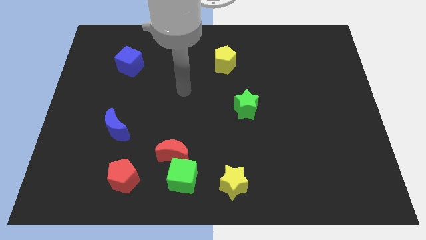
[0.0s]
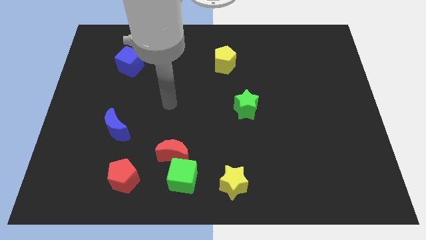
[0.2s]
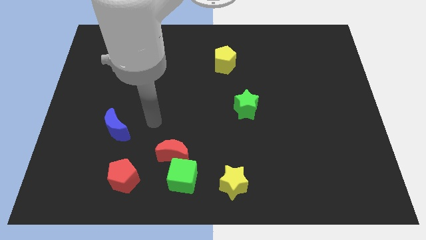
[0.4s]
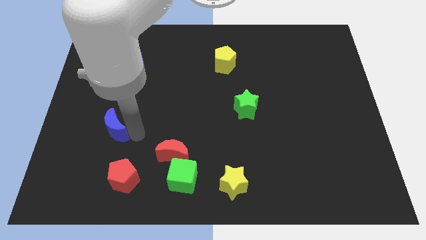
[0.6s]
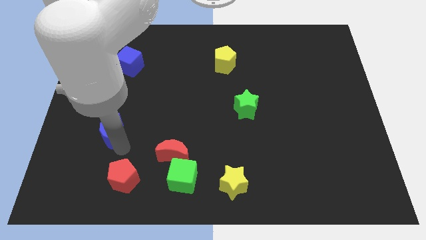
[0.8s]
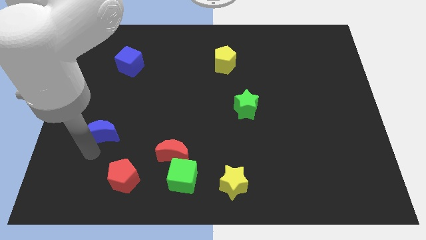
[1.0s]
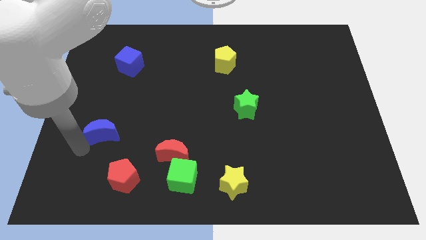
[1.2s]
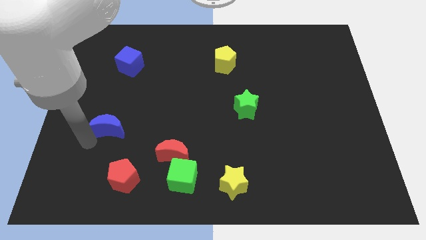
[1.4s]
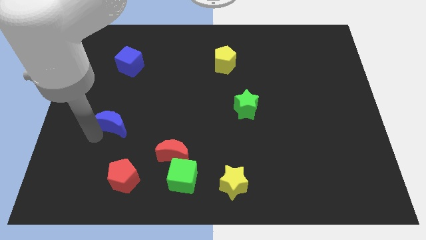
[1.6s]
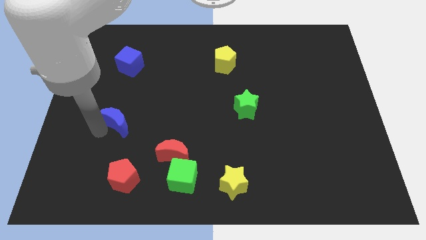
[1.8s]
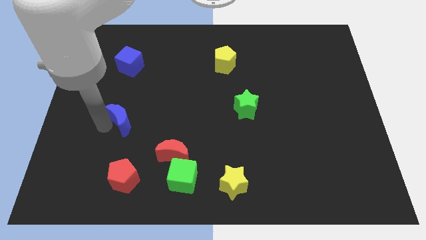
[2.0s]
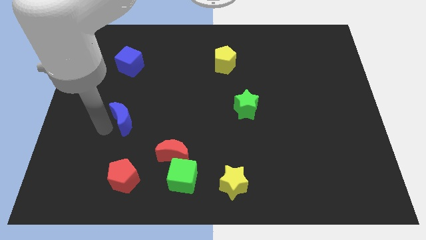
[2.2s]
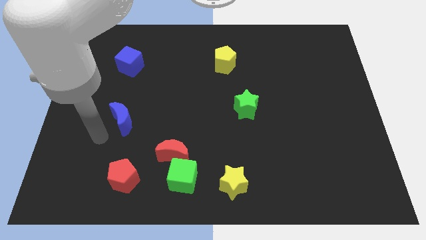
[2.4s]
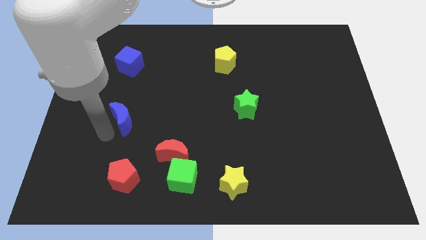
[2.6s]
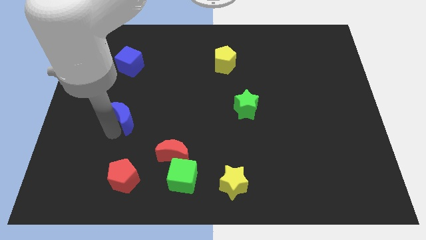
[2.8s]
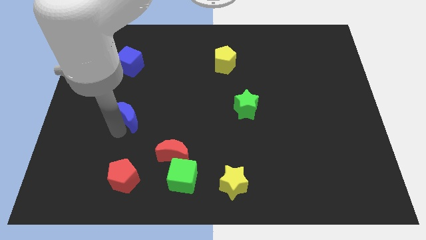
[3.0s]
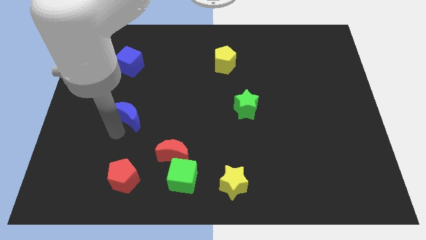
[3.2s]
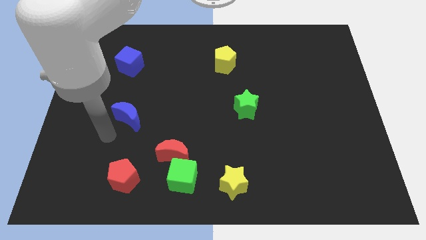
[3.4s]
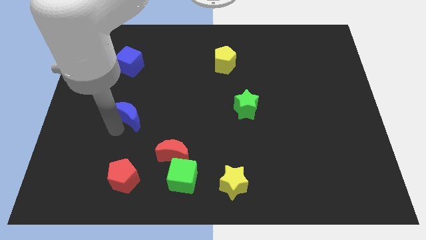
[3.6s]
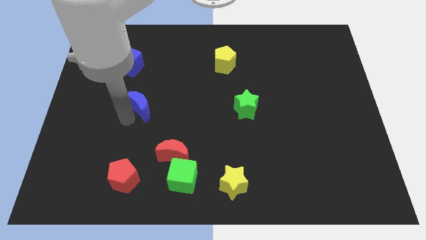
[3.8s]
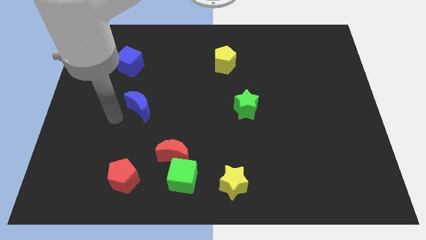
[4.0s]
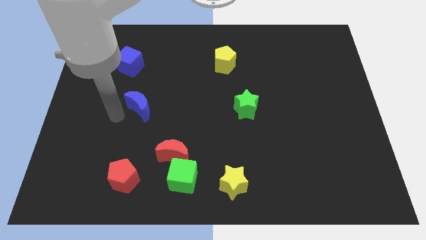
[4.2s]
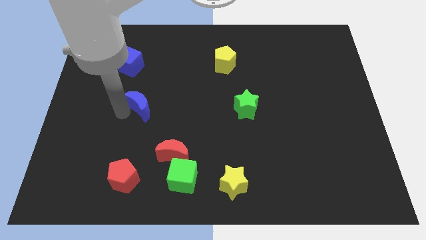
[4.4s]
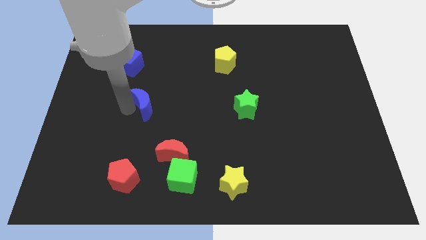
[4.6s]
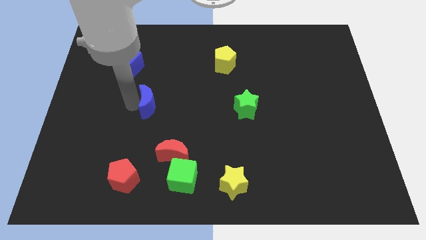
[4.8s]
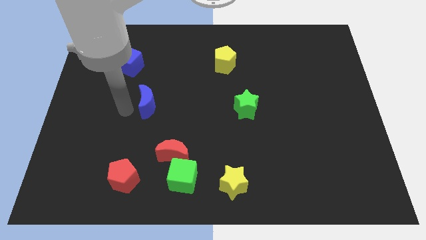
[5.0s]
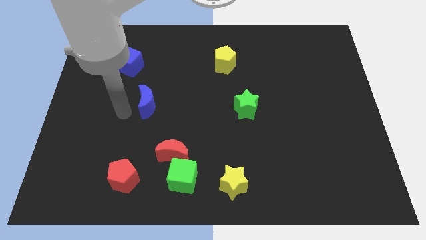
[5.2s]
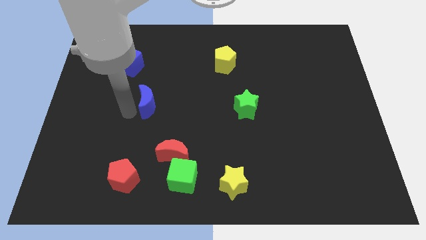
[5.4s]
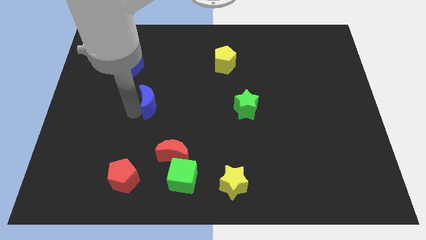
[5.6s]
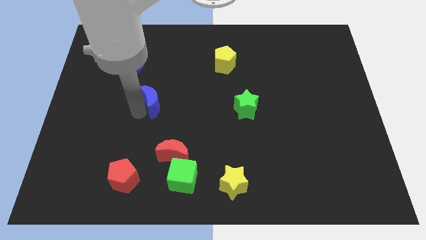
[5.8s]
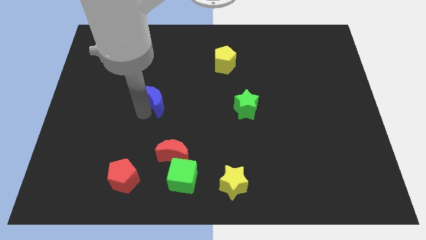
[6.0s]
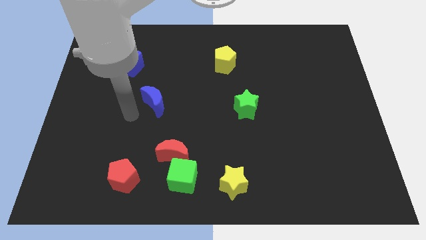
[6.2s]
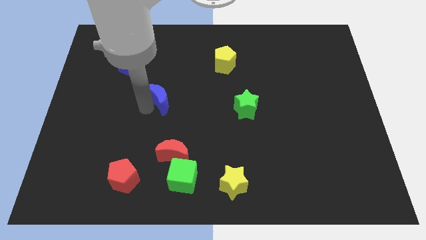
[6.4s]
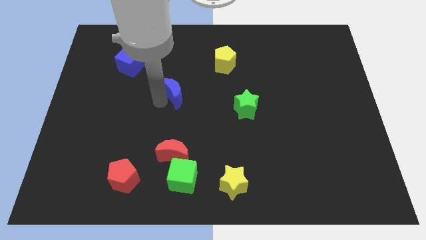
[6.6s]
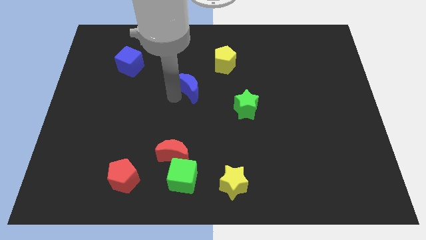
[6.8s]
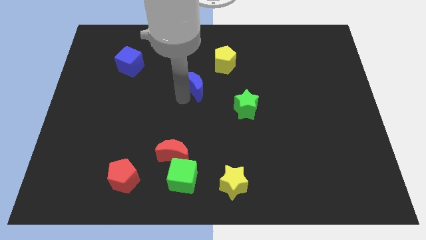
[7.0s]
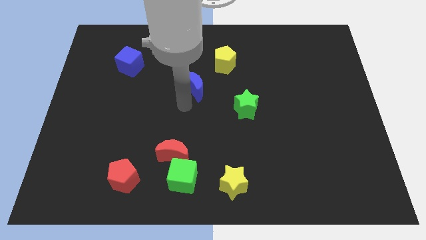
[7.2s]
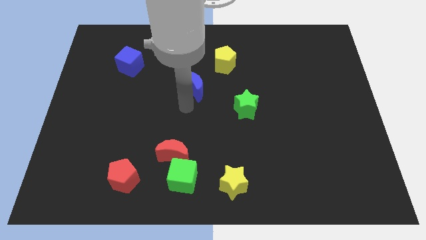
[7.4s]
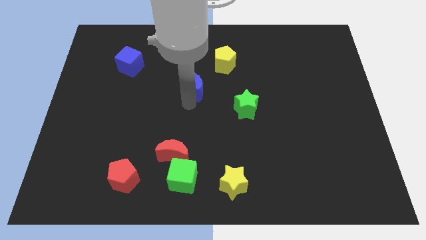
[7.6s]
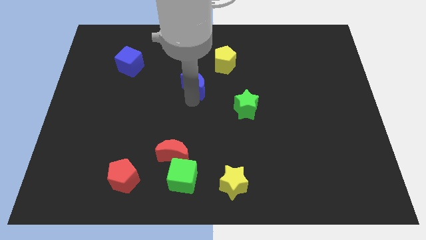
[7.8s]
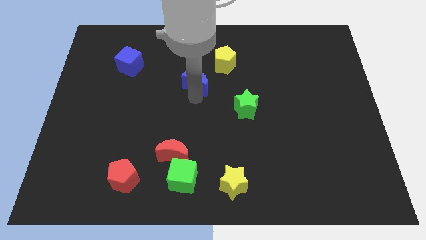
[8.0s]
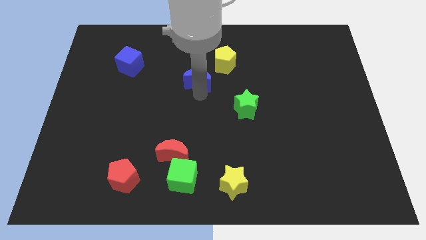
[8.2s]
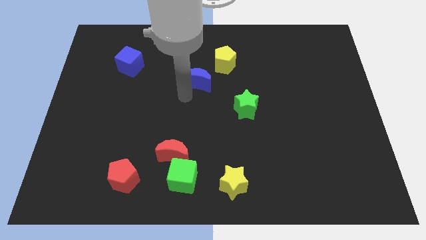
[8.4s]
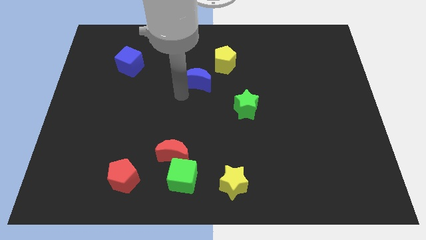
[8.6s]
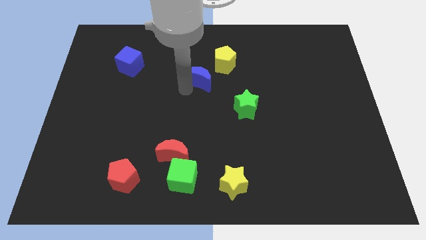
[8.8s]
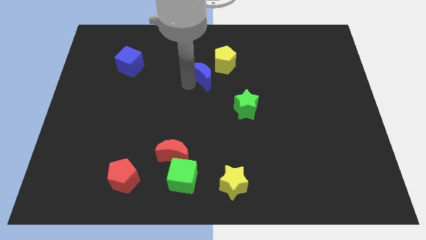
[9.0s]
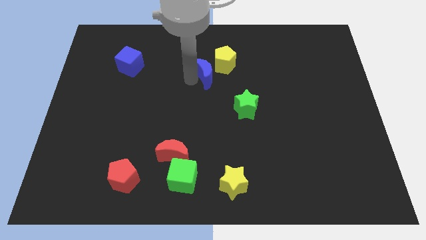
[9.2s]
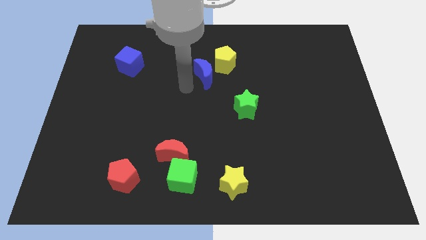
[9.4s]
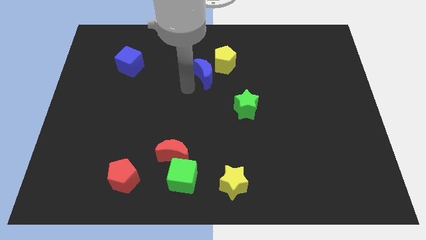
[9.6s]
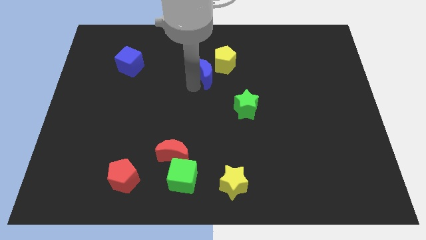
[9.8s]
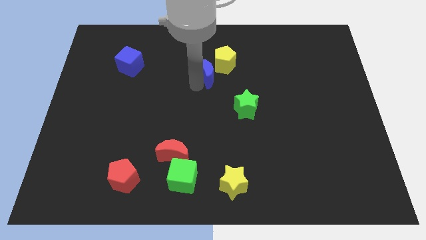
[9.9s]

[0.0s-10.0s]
move the blue moon next to the yellow pentagon

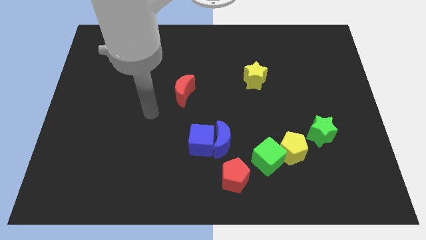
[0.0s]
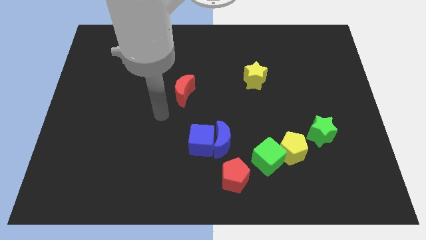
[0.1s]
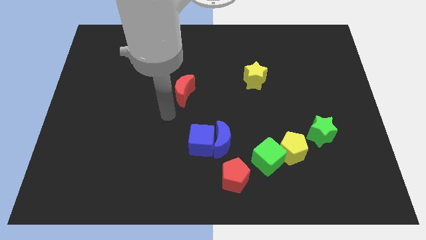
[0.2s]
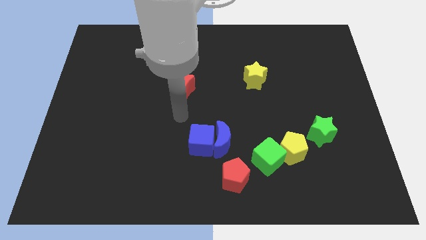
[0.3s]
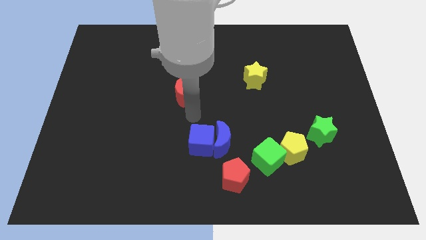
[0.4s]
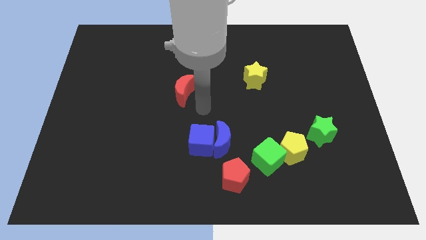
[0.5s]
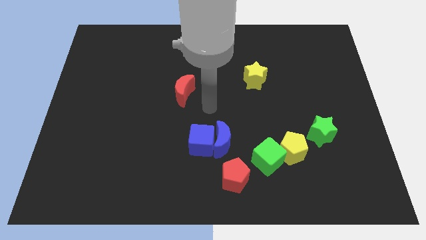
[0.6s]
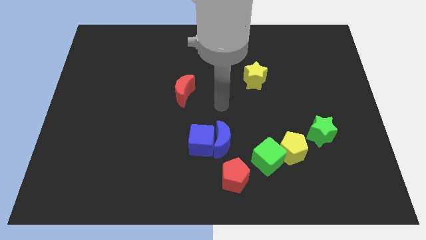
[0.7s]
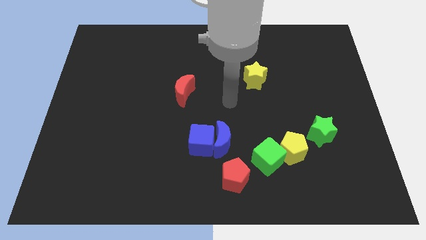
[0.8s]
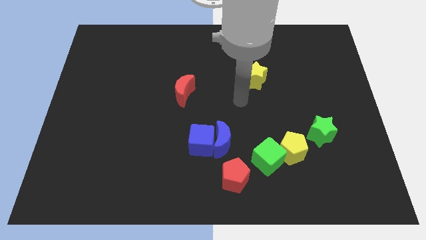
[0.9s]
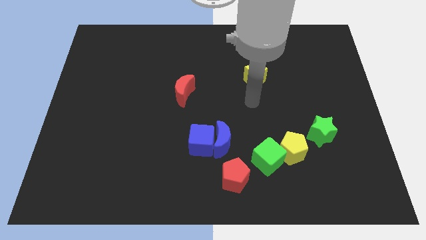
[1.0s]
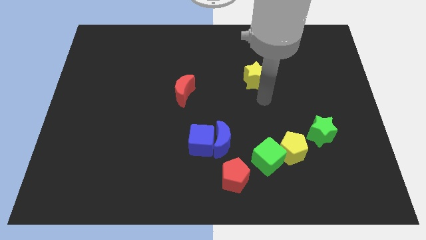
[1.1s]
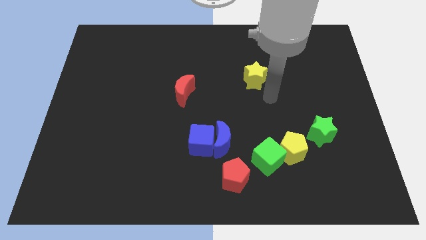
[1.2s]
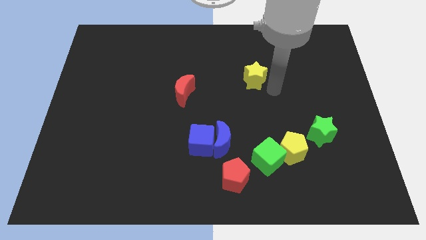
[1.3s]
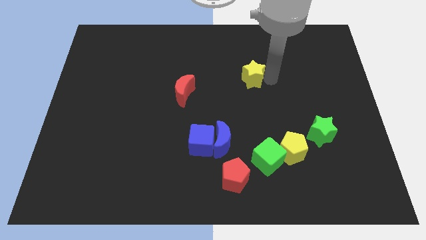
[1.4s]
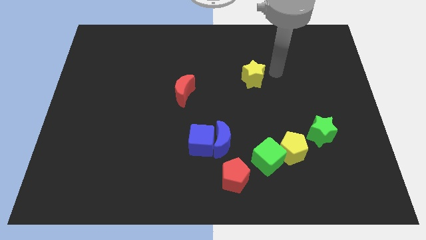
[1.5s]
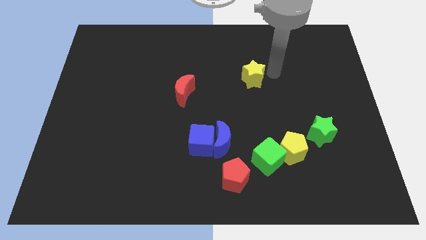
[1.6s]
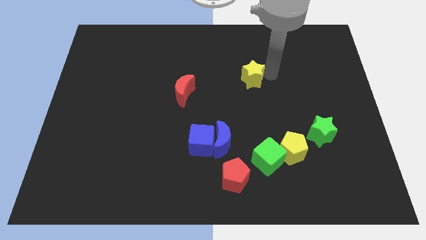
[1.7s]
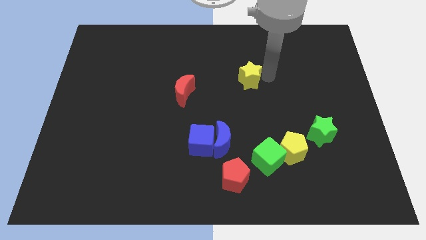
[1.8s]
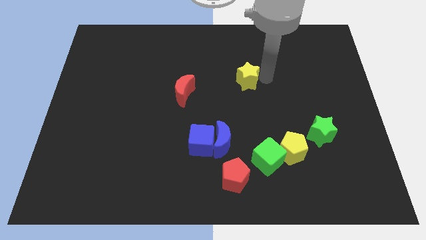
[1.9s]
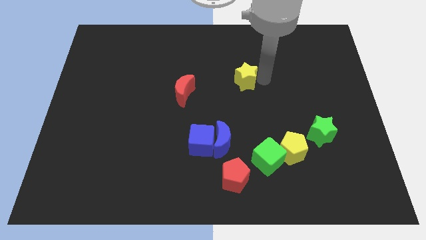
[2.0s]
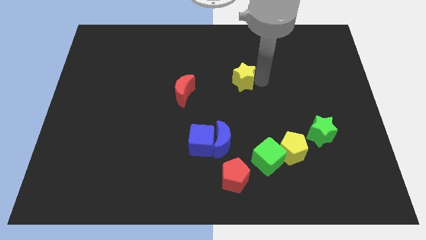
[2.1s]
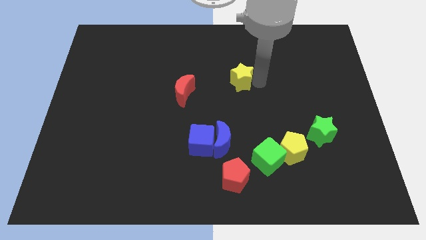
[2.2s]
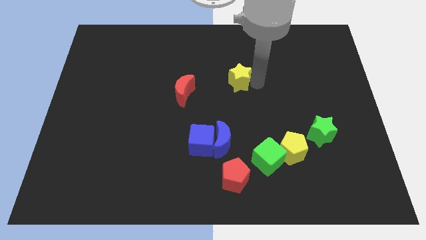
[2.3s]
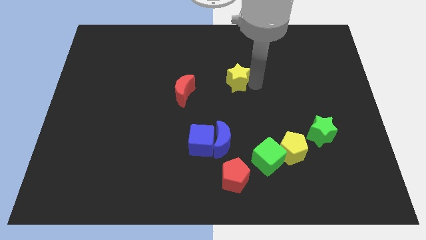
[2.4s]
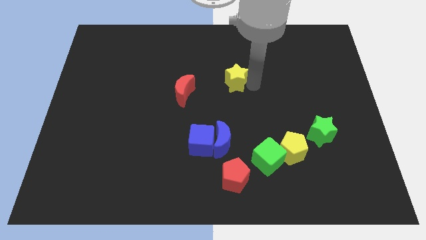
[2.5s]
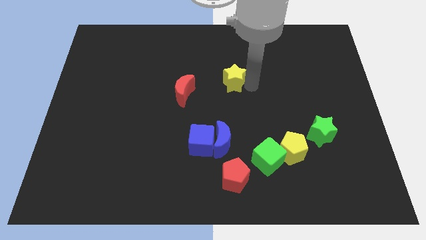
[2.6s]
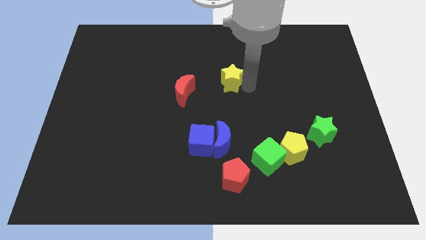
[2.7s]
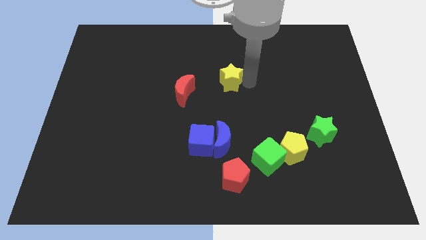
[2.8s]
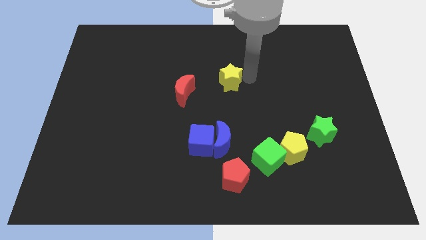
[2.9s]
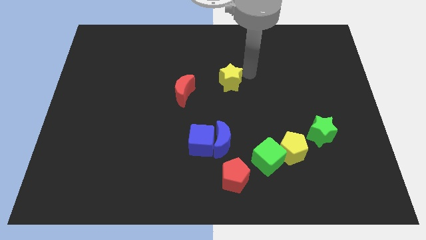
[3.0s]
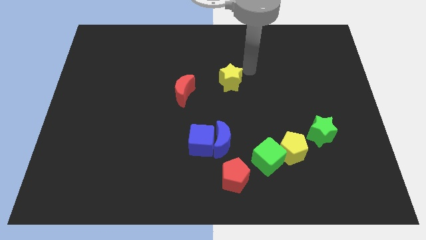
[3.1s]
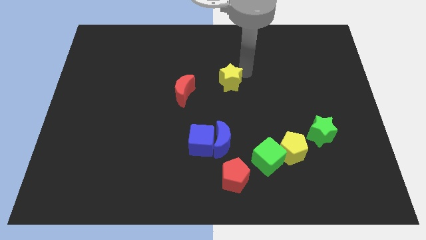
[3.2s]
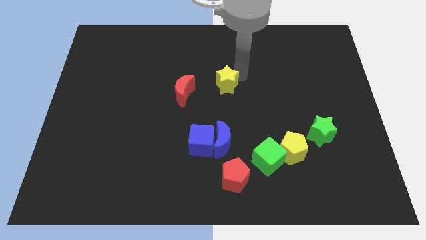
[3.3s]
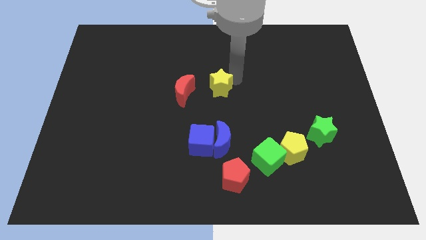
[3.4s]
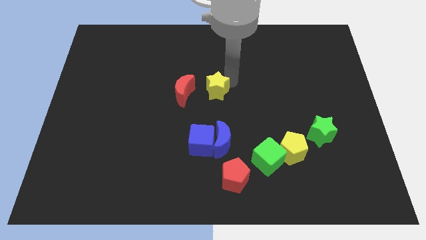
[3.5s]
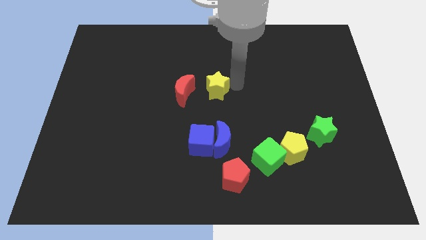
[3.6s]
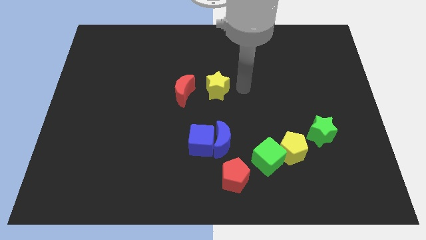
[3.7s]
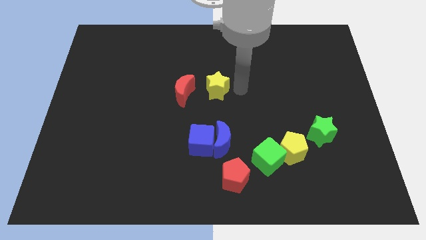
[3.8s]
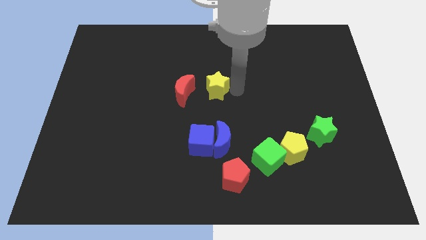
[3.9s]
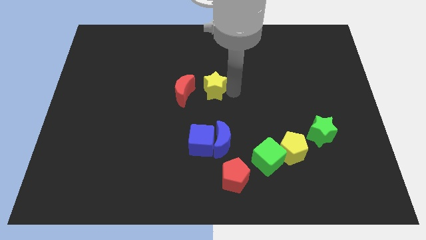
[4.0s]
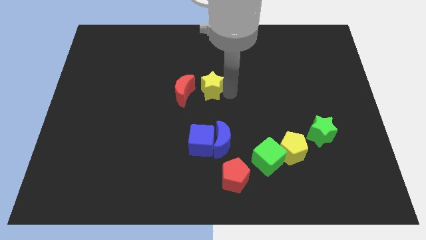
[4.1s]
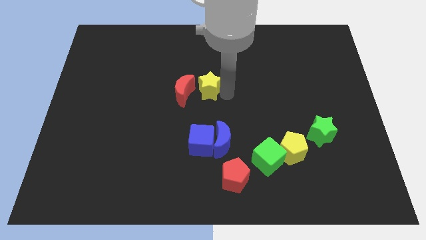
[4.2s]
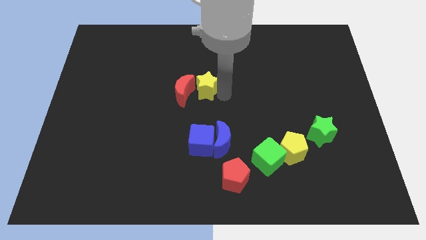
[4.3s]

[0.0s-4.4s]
put the yellow star towards the red moon
